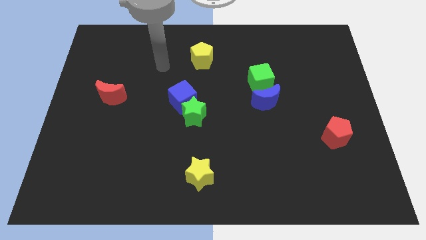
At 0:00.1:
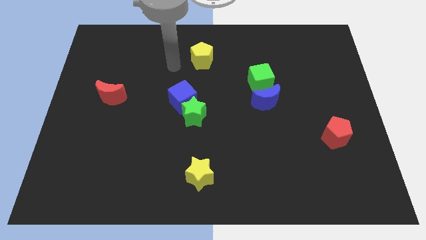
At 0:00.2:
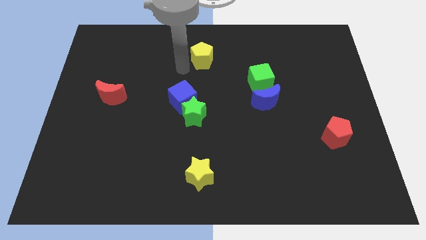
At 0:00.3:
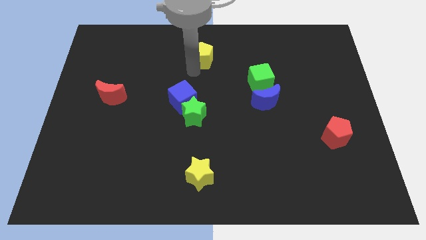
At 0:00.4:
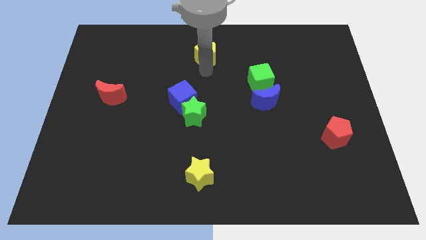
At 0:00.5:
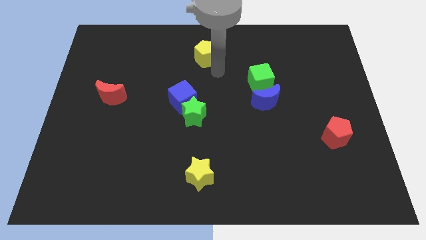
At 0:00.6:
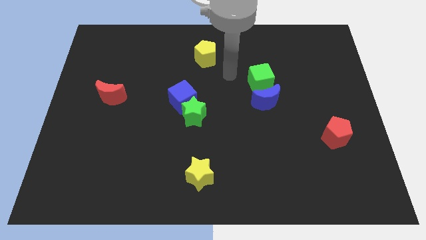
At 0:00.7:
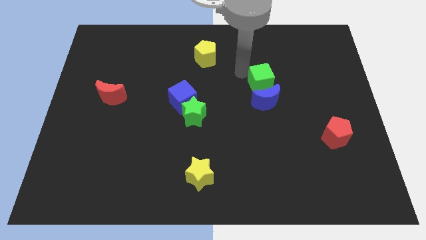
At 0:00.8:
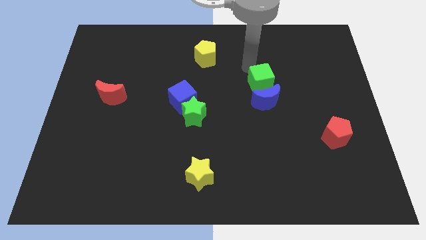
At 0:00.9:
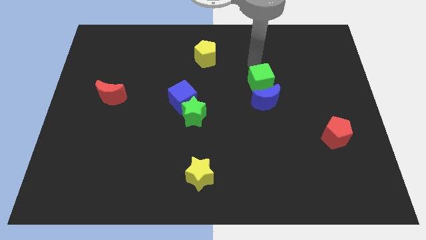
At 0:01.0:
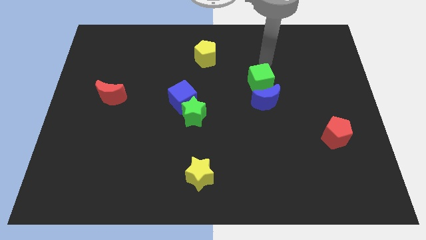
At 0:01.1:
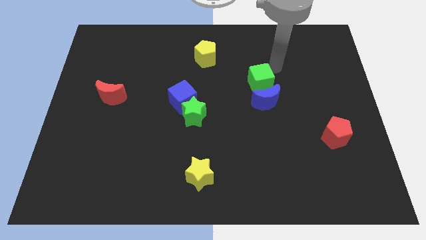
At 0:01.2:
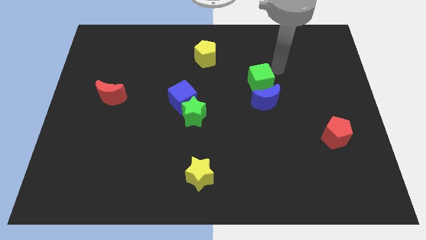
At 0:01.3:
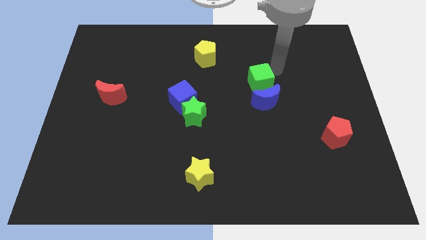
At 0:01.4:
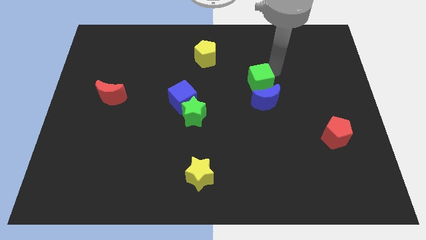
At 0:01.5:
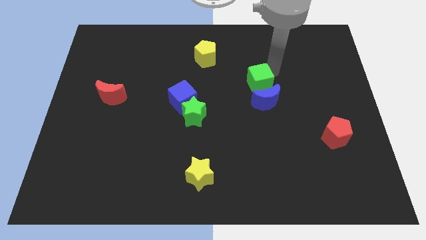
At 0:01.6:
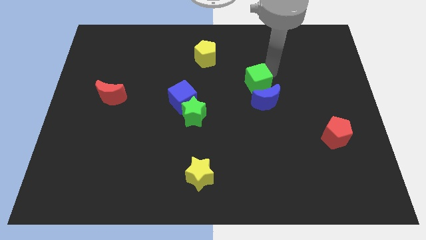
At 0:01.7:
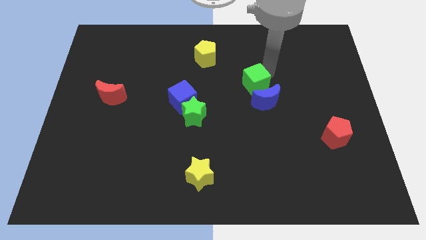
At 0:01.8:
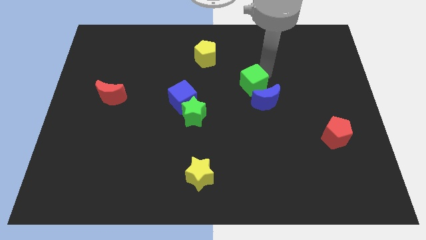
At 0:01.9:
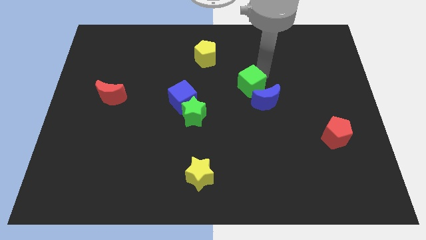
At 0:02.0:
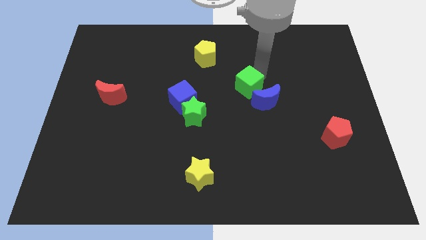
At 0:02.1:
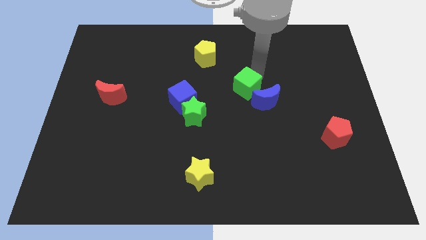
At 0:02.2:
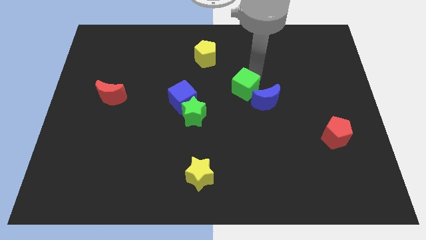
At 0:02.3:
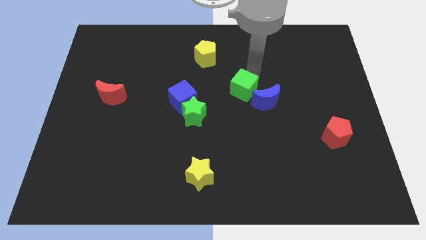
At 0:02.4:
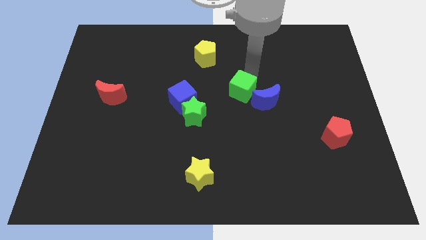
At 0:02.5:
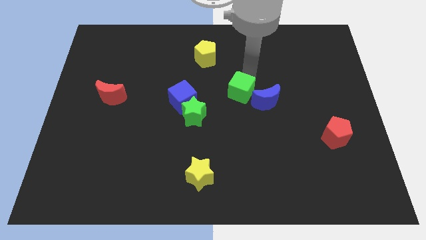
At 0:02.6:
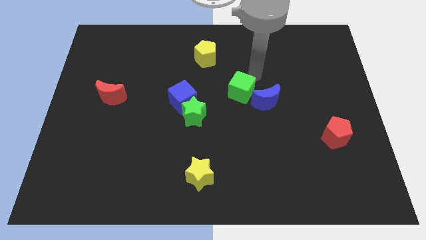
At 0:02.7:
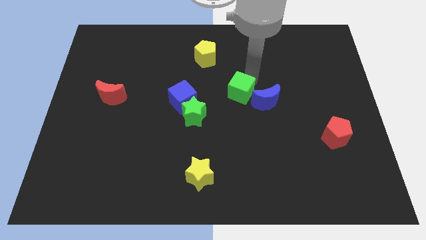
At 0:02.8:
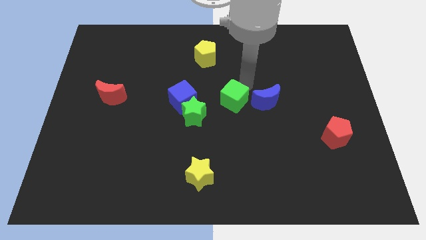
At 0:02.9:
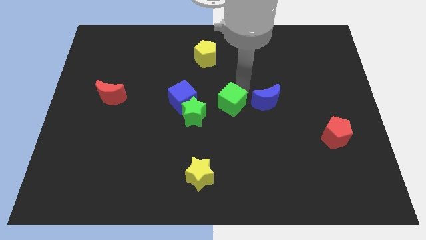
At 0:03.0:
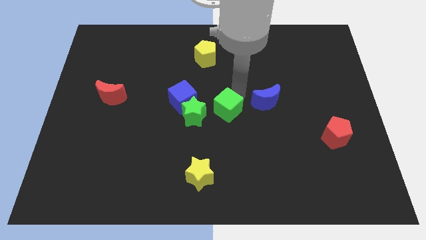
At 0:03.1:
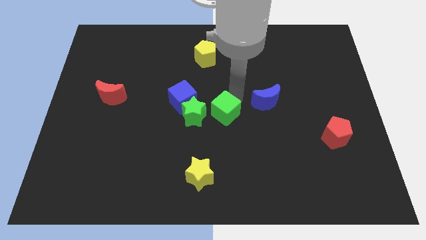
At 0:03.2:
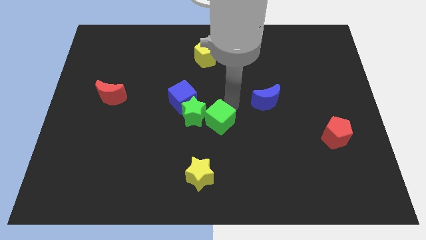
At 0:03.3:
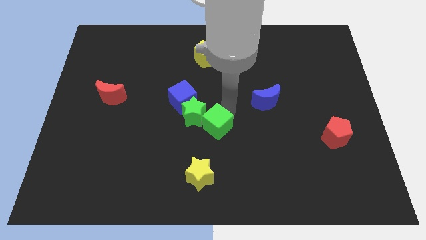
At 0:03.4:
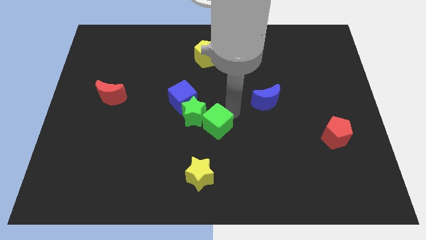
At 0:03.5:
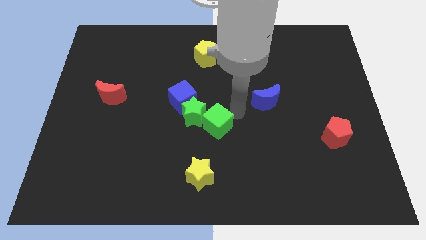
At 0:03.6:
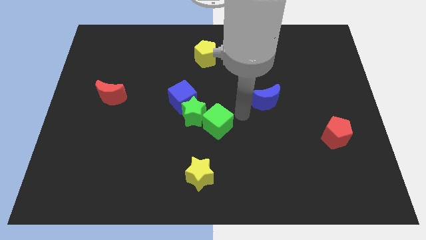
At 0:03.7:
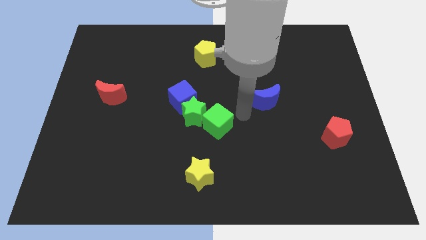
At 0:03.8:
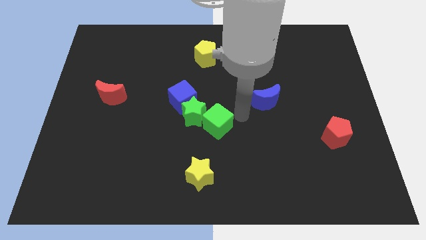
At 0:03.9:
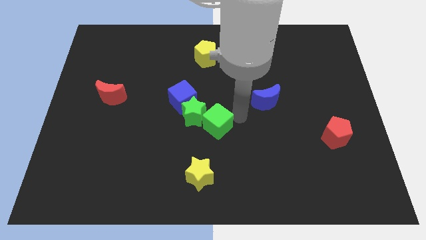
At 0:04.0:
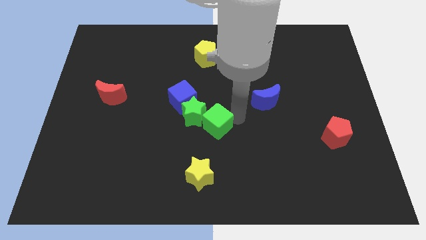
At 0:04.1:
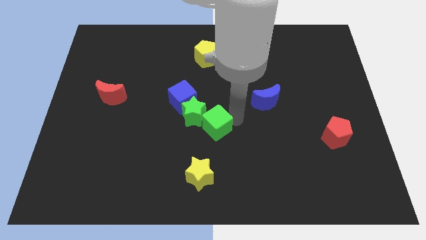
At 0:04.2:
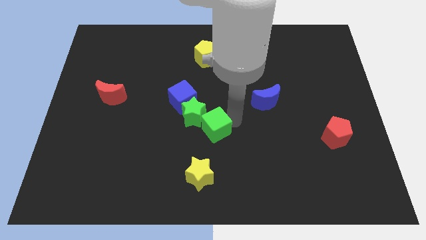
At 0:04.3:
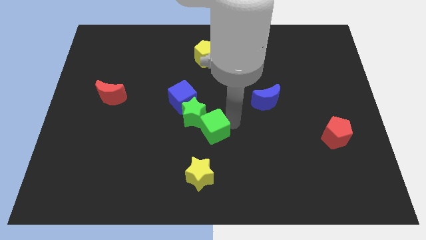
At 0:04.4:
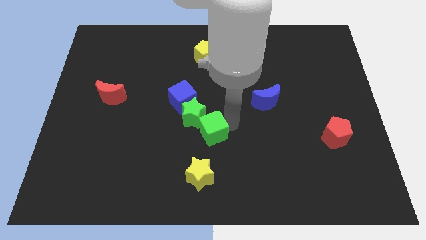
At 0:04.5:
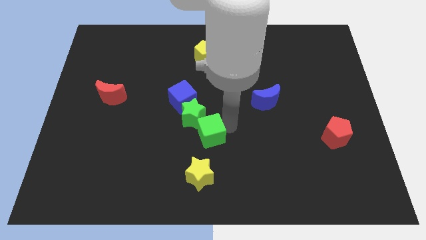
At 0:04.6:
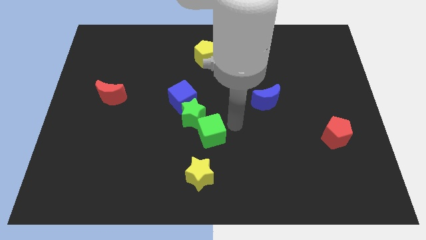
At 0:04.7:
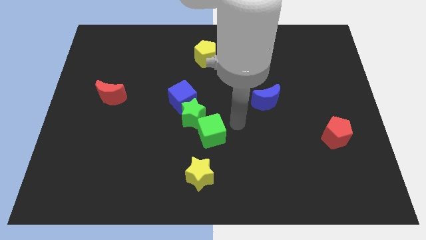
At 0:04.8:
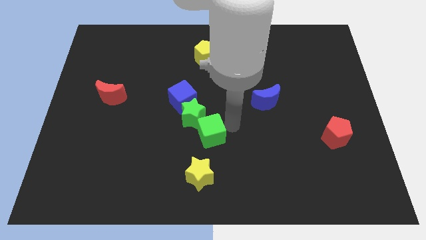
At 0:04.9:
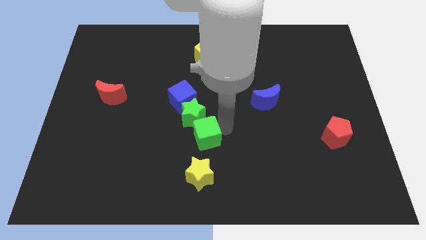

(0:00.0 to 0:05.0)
push the green cube down and then to the left

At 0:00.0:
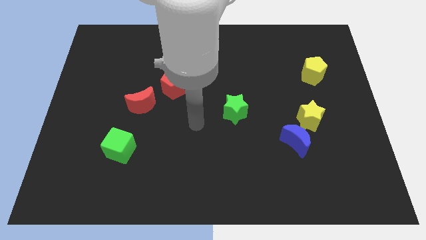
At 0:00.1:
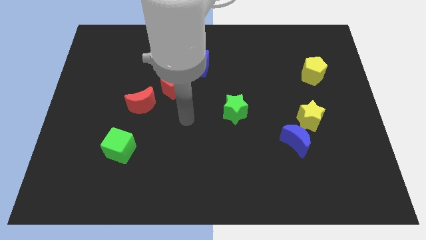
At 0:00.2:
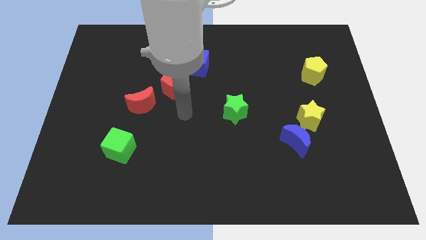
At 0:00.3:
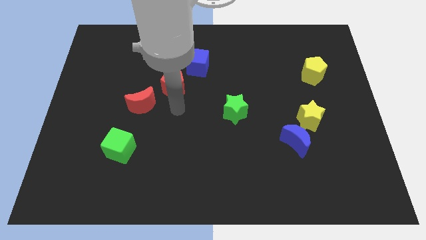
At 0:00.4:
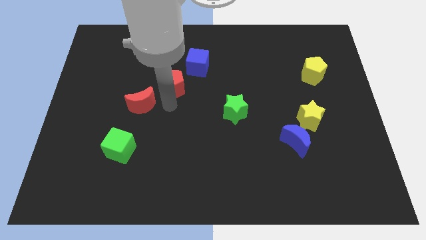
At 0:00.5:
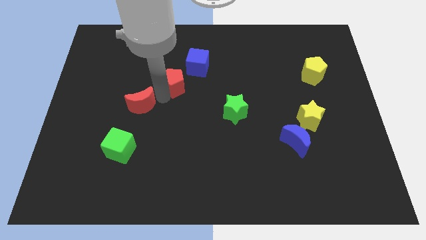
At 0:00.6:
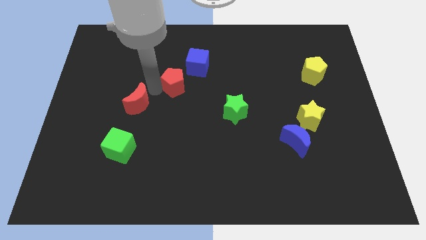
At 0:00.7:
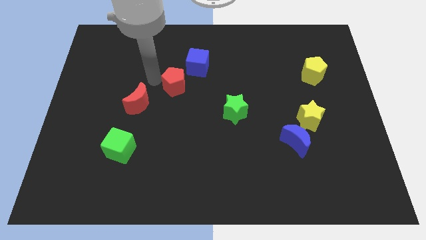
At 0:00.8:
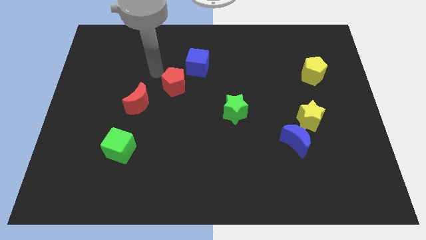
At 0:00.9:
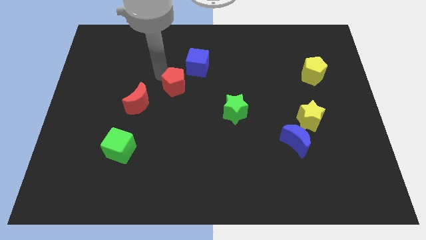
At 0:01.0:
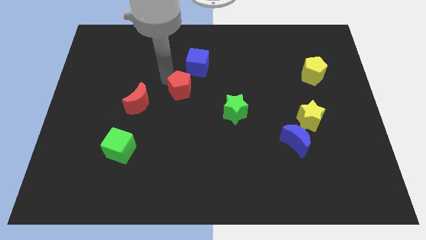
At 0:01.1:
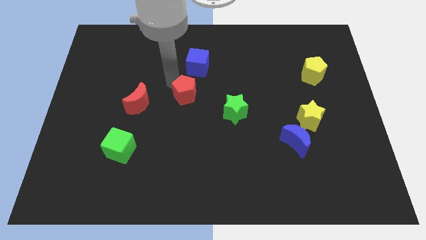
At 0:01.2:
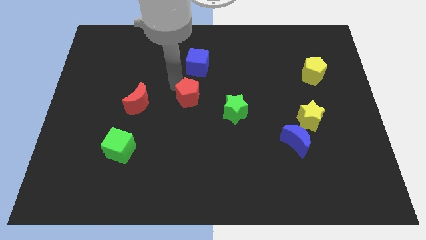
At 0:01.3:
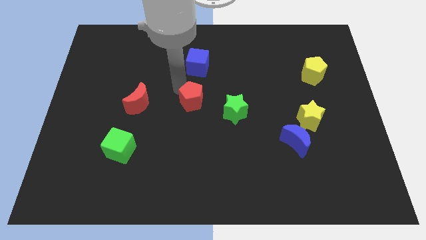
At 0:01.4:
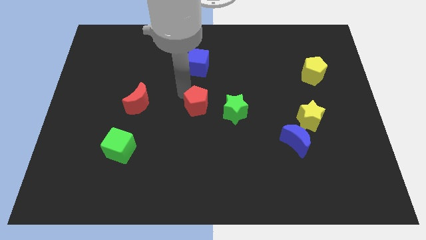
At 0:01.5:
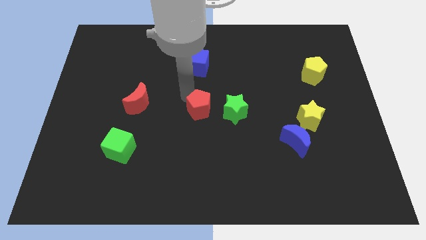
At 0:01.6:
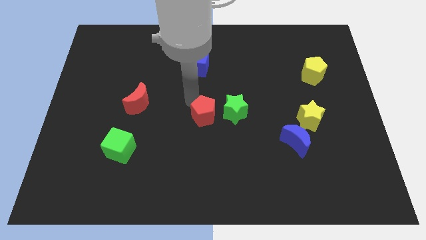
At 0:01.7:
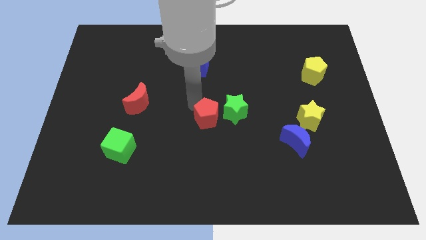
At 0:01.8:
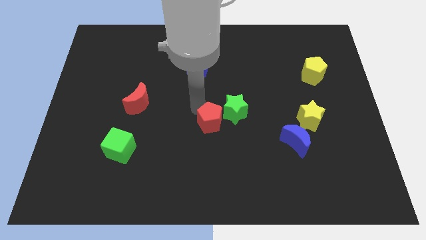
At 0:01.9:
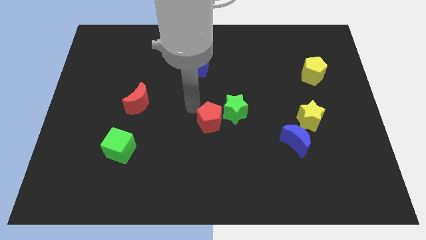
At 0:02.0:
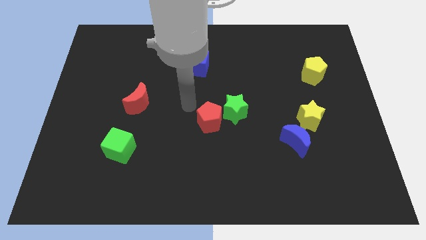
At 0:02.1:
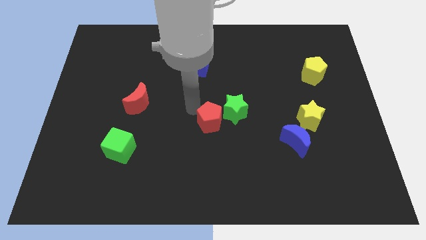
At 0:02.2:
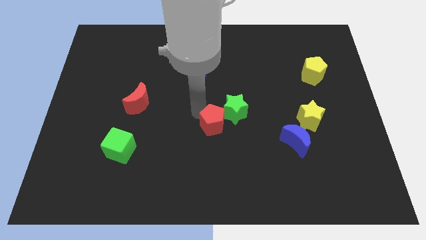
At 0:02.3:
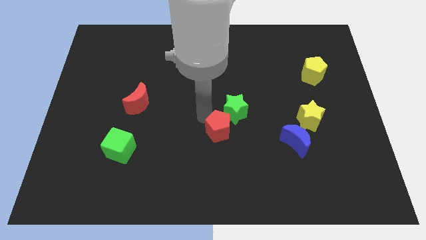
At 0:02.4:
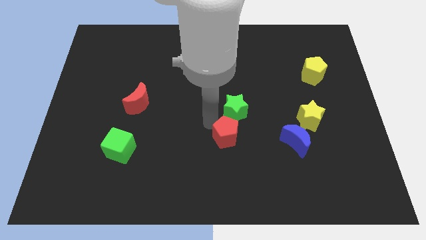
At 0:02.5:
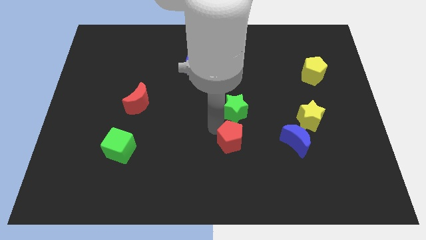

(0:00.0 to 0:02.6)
move the red pentagon down and right

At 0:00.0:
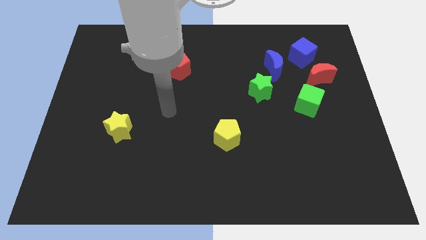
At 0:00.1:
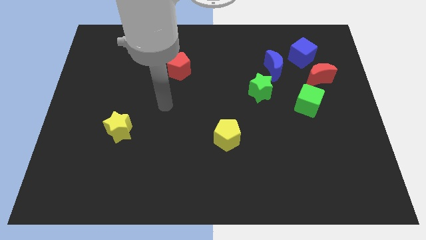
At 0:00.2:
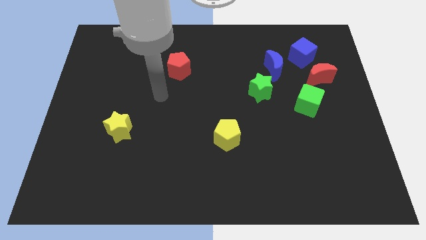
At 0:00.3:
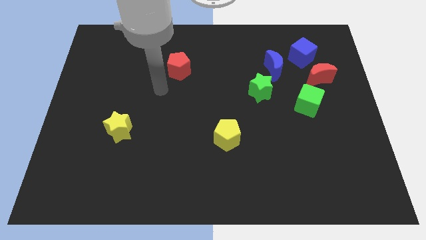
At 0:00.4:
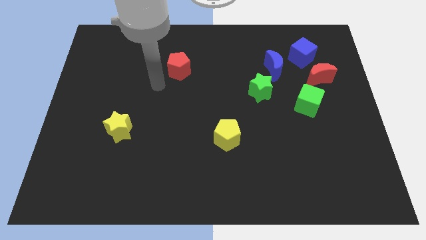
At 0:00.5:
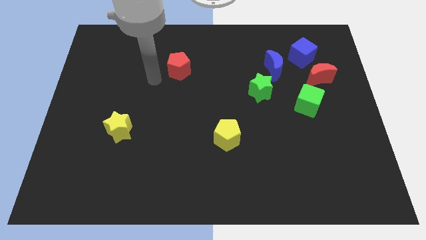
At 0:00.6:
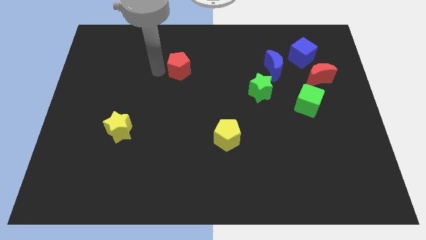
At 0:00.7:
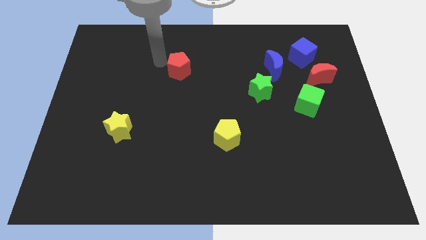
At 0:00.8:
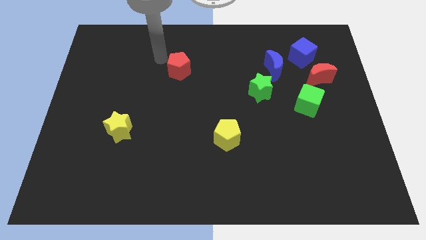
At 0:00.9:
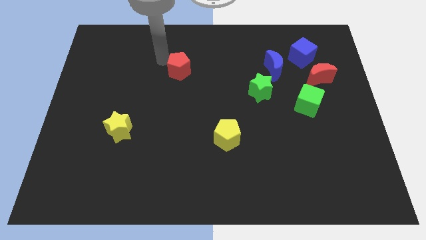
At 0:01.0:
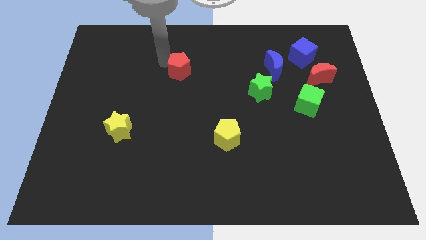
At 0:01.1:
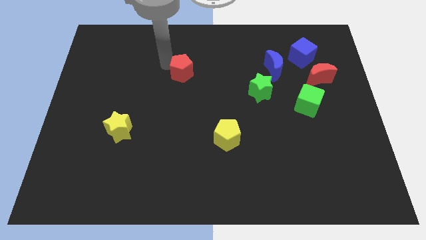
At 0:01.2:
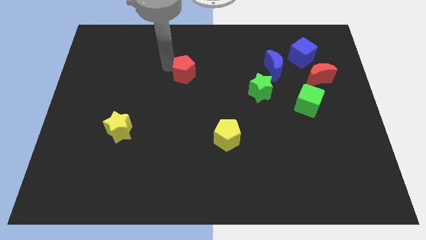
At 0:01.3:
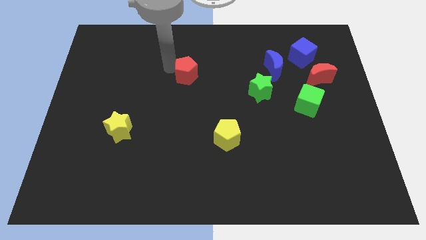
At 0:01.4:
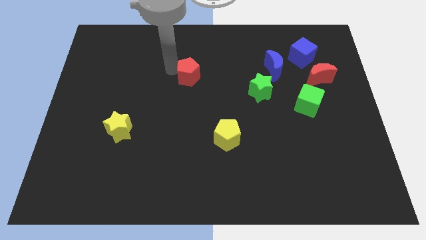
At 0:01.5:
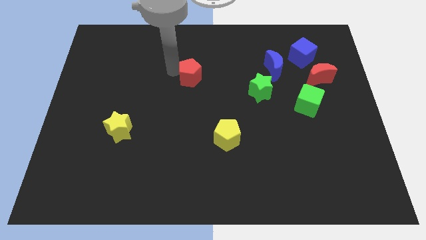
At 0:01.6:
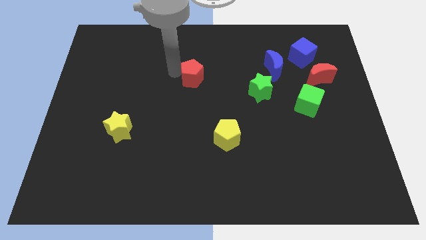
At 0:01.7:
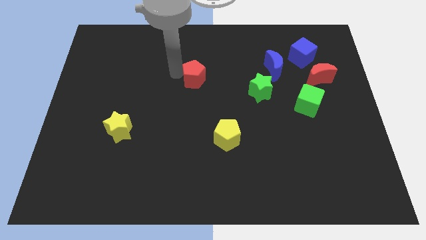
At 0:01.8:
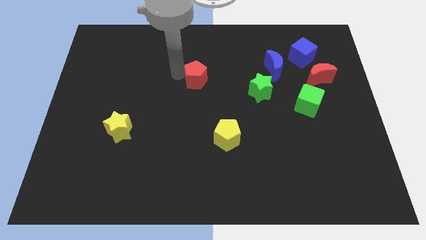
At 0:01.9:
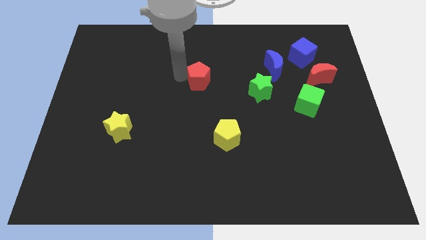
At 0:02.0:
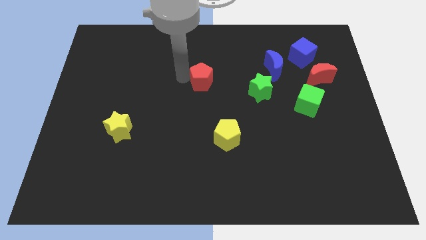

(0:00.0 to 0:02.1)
slightly move the red pentagon down and right diagonally
